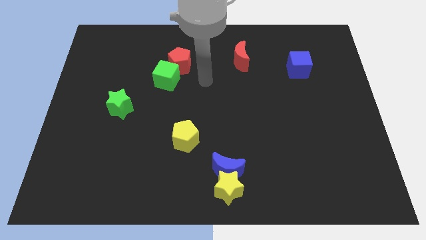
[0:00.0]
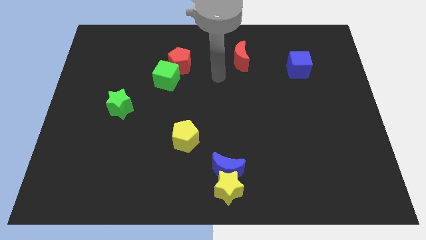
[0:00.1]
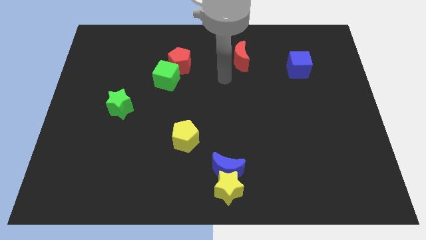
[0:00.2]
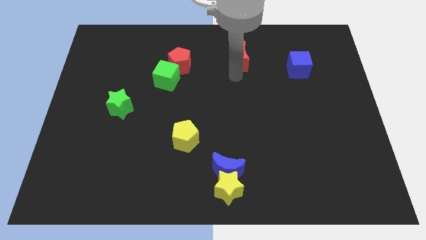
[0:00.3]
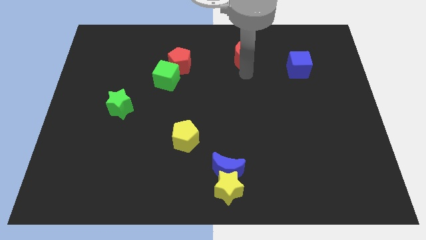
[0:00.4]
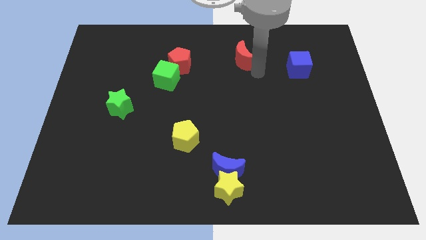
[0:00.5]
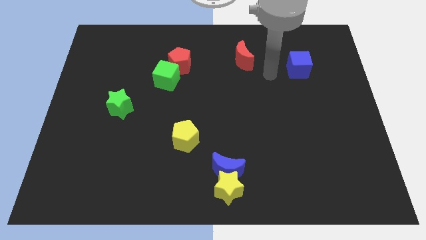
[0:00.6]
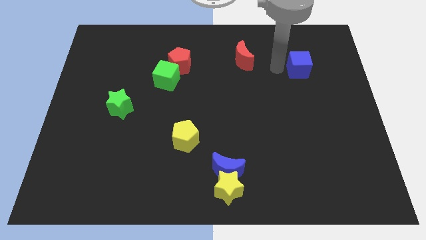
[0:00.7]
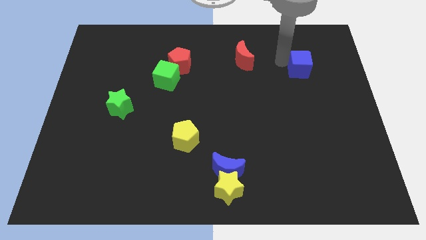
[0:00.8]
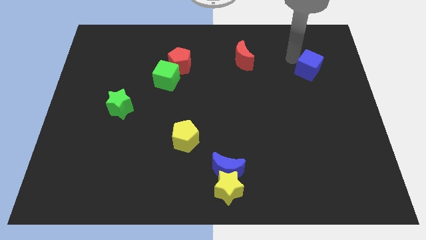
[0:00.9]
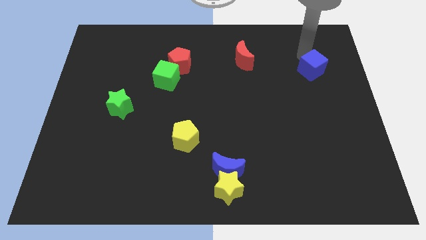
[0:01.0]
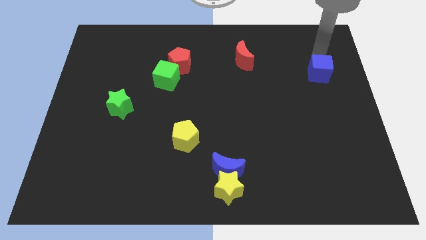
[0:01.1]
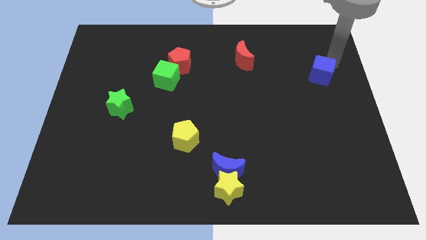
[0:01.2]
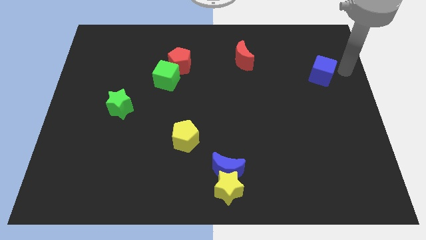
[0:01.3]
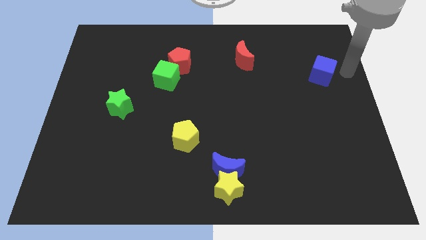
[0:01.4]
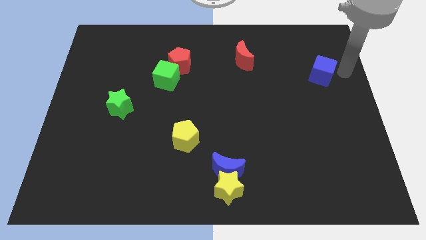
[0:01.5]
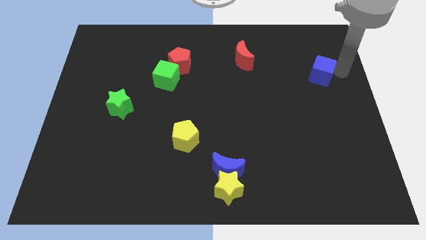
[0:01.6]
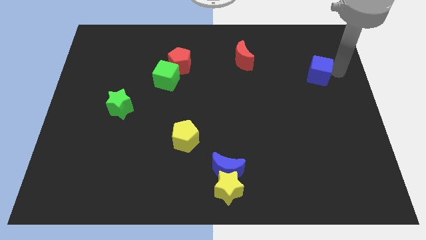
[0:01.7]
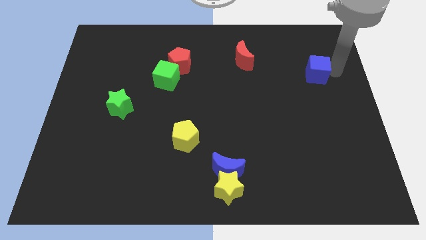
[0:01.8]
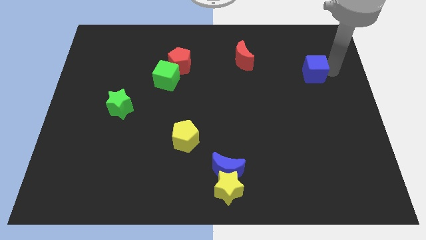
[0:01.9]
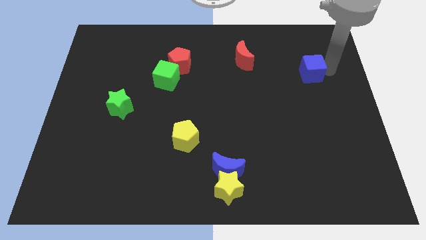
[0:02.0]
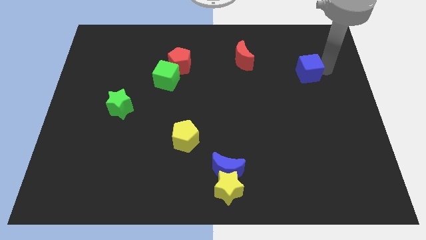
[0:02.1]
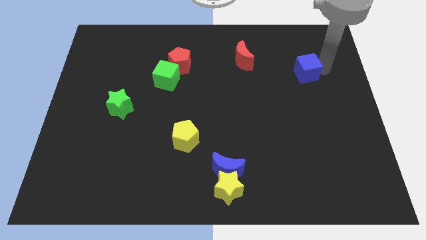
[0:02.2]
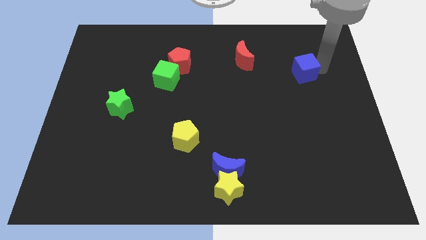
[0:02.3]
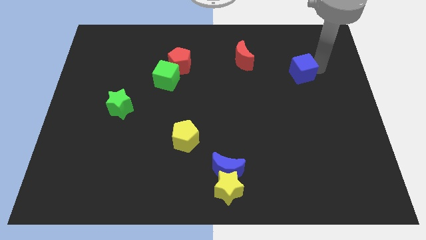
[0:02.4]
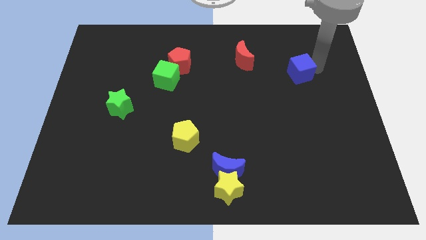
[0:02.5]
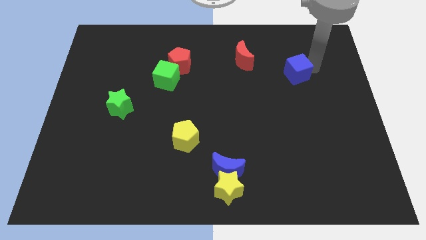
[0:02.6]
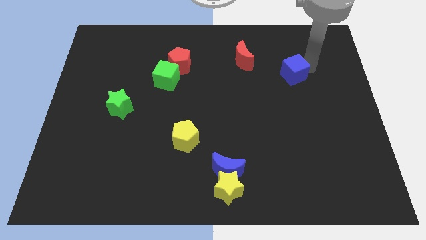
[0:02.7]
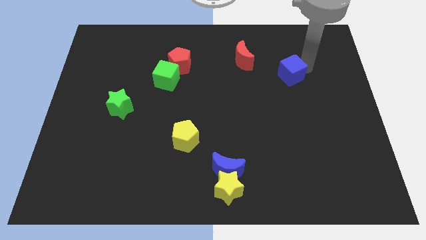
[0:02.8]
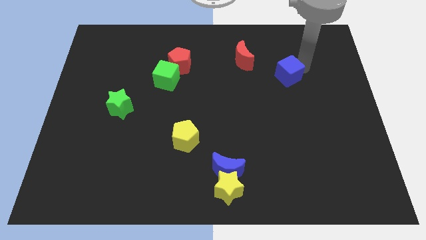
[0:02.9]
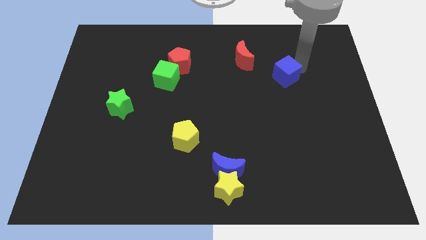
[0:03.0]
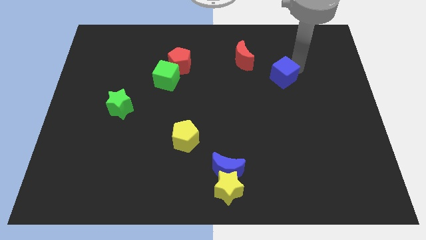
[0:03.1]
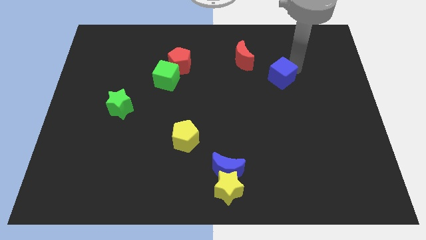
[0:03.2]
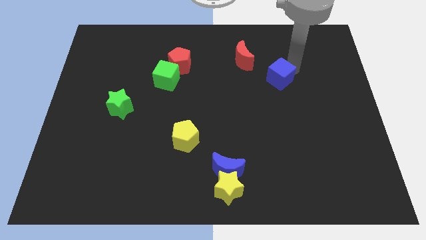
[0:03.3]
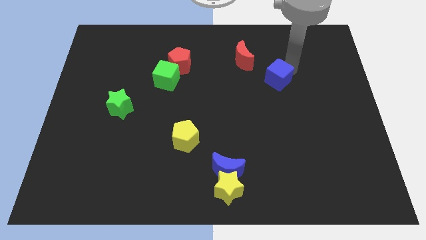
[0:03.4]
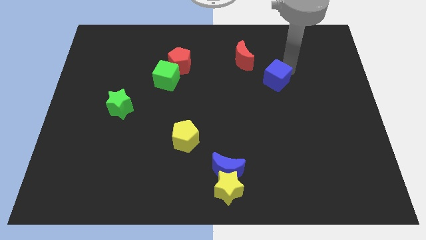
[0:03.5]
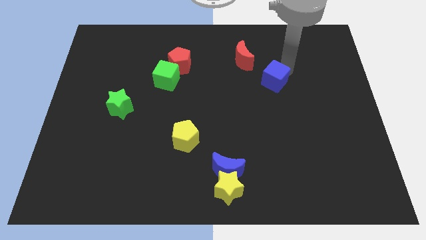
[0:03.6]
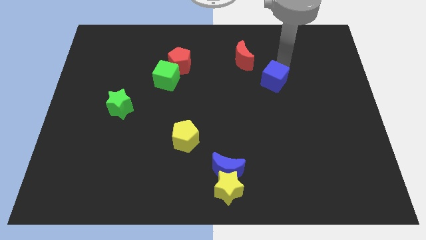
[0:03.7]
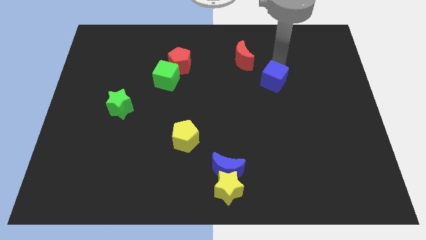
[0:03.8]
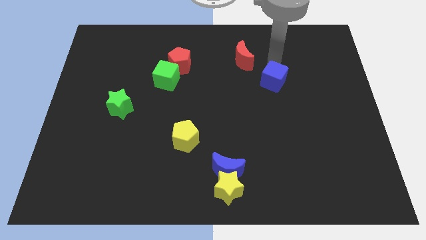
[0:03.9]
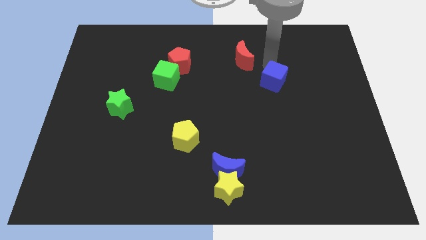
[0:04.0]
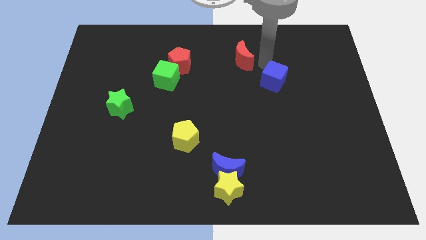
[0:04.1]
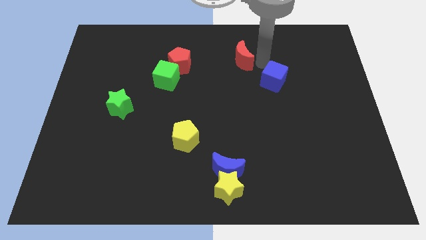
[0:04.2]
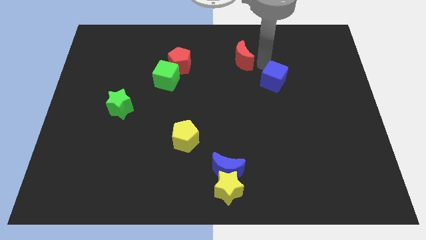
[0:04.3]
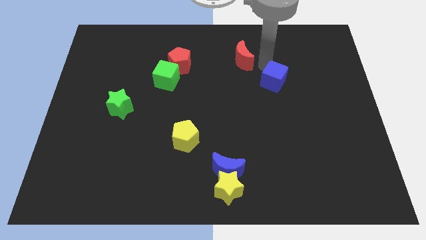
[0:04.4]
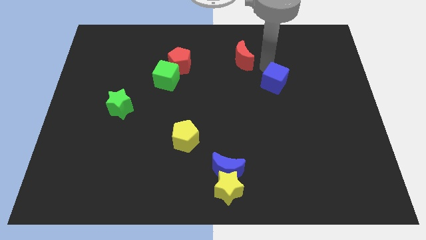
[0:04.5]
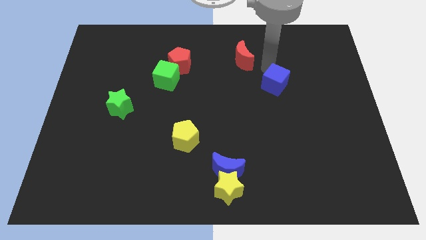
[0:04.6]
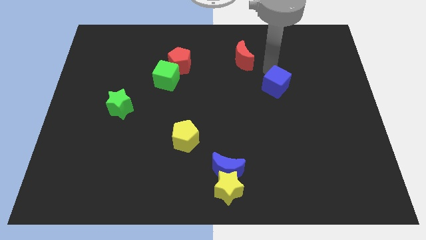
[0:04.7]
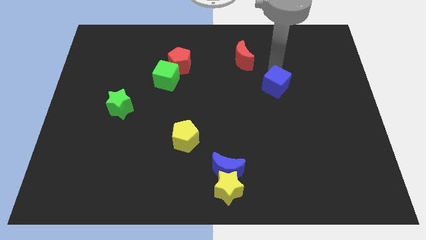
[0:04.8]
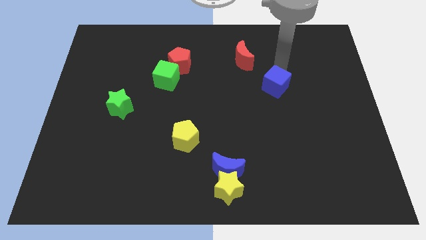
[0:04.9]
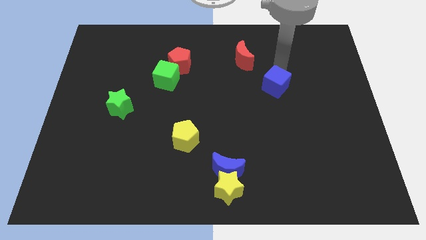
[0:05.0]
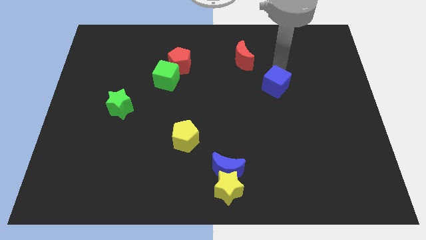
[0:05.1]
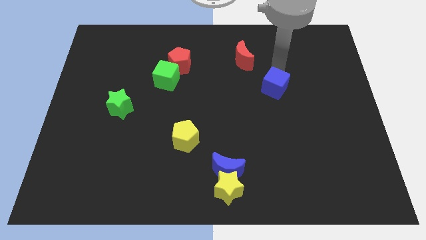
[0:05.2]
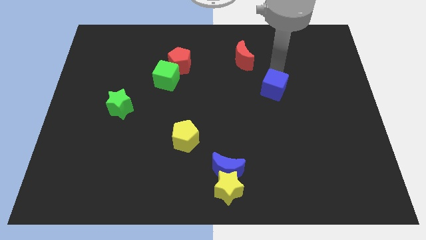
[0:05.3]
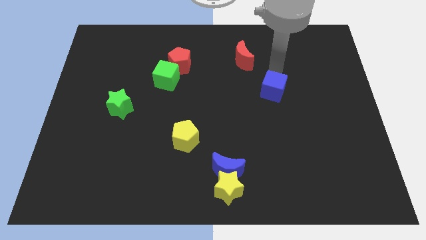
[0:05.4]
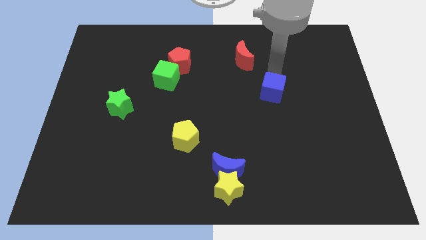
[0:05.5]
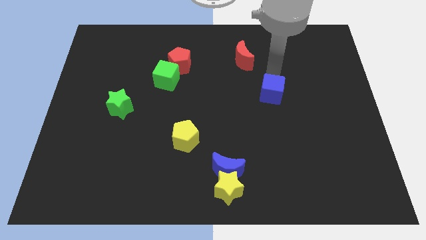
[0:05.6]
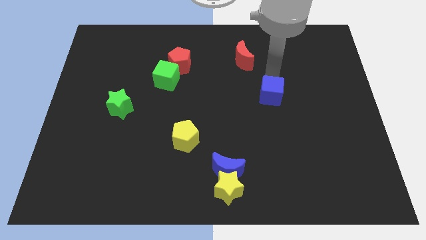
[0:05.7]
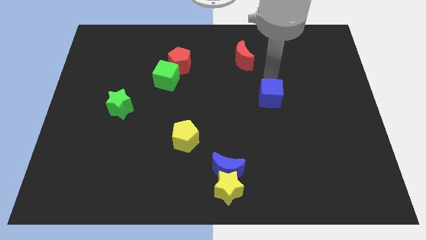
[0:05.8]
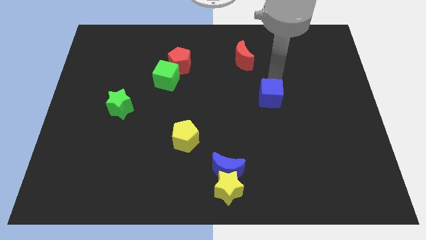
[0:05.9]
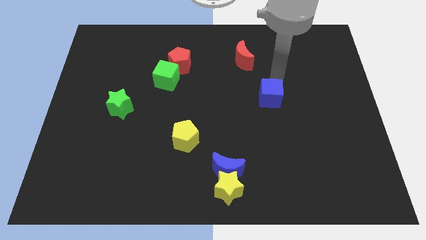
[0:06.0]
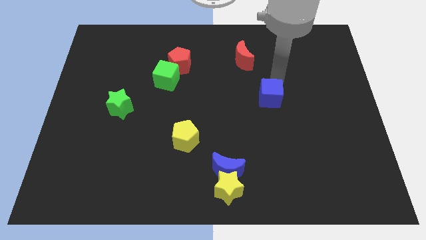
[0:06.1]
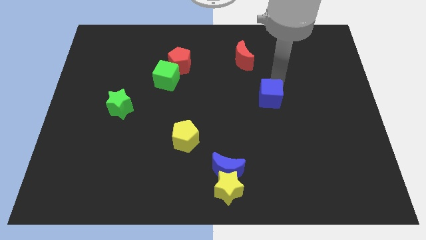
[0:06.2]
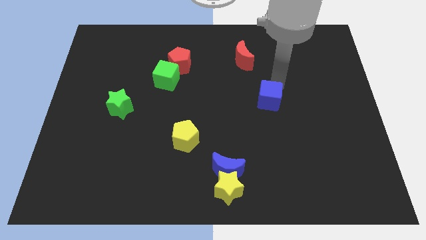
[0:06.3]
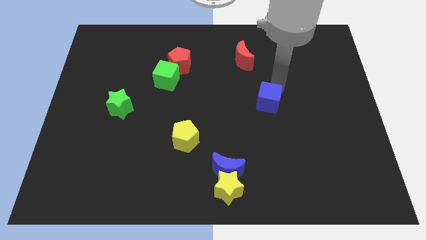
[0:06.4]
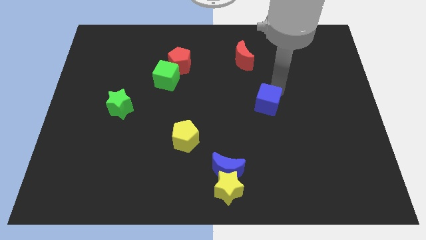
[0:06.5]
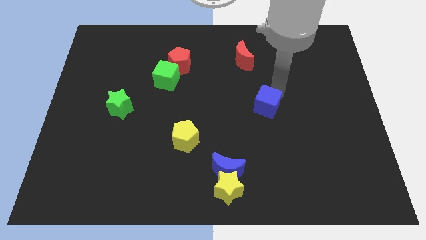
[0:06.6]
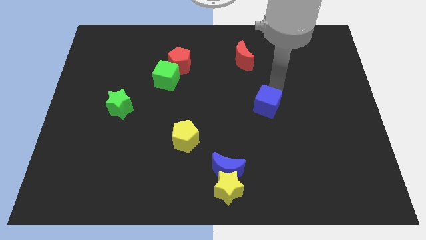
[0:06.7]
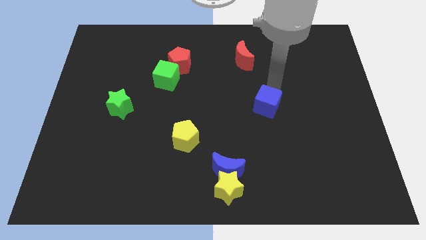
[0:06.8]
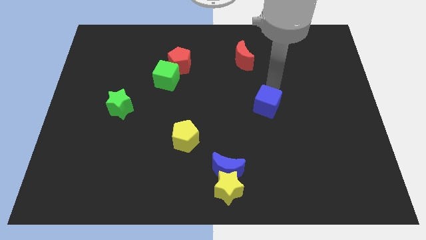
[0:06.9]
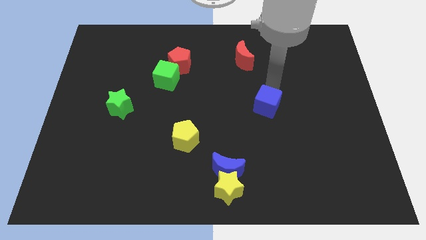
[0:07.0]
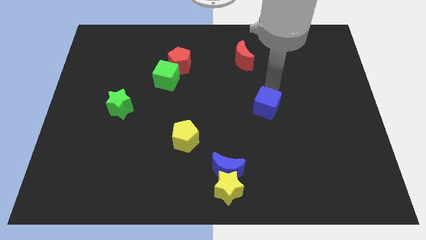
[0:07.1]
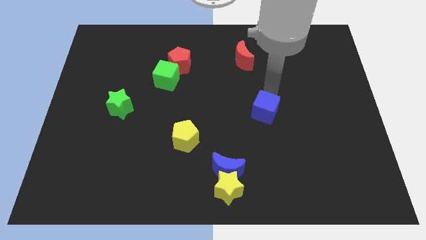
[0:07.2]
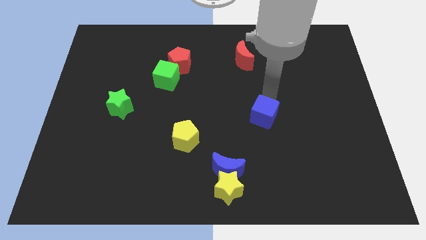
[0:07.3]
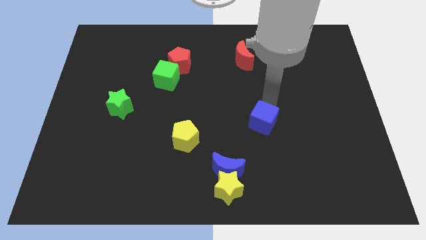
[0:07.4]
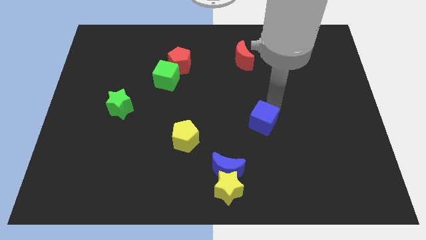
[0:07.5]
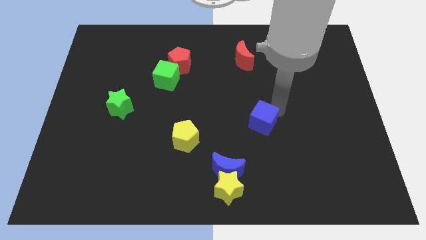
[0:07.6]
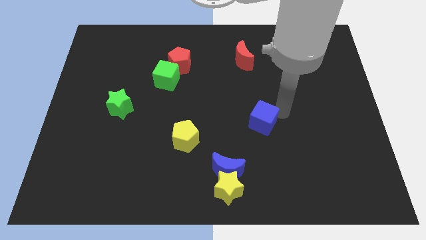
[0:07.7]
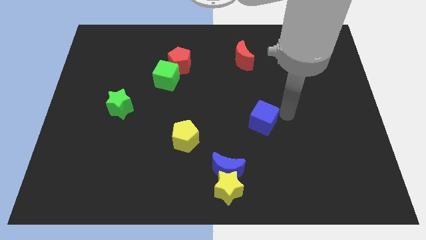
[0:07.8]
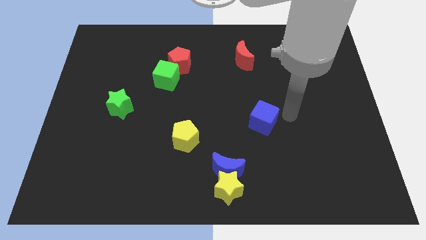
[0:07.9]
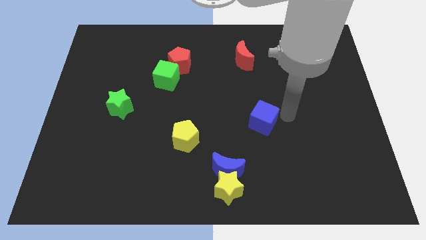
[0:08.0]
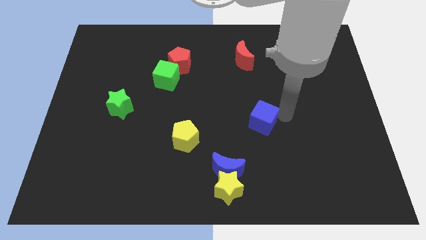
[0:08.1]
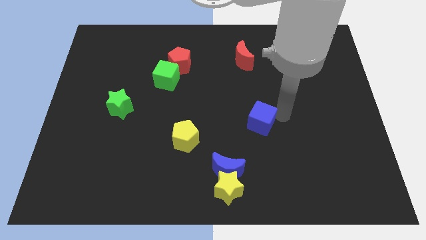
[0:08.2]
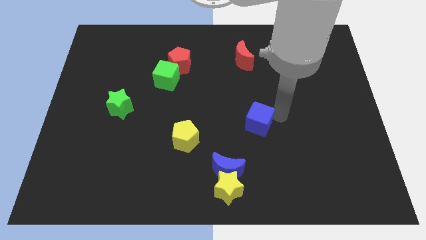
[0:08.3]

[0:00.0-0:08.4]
push the blue cube diagonally downwards and left
